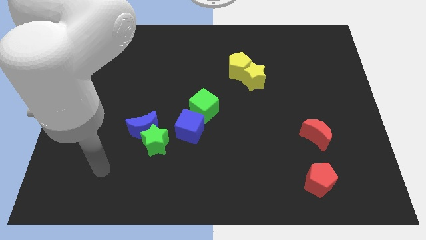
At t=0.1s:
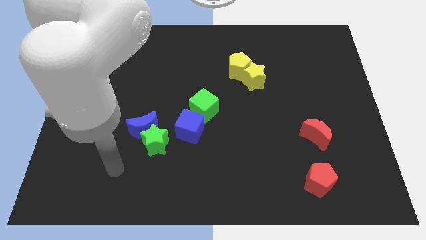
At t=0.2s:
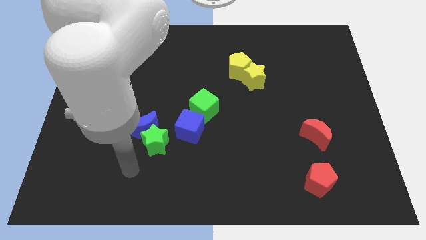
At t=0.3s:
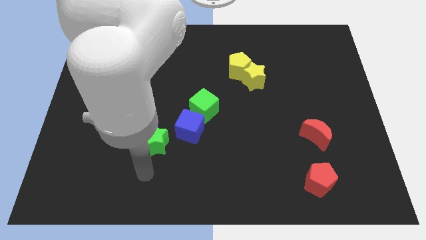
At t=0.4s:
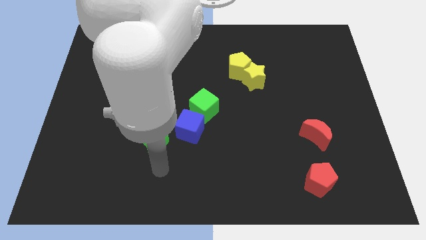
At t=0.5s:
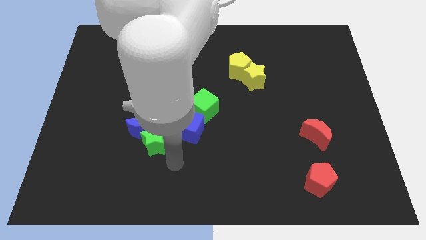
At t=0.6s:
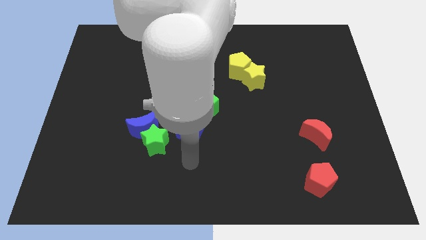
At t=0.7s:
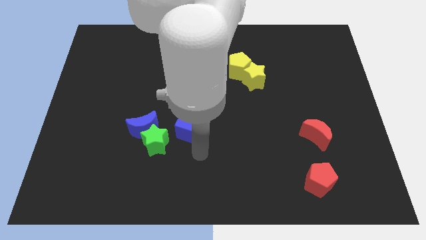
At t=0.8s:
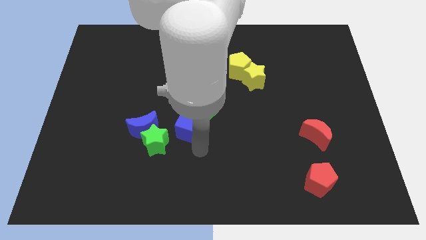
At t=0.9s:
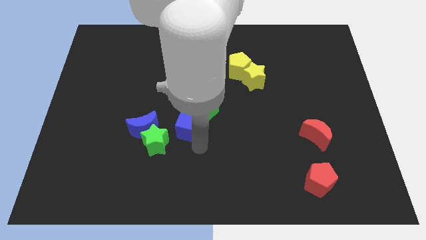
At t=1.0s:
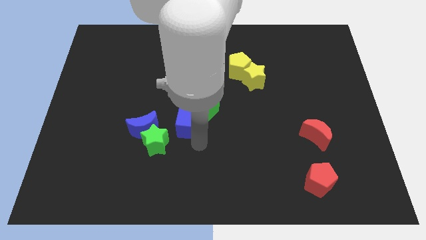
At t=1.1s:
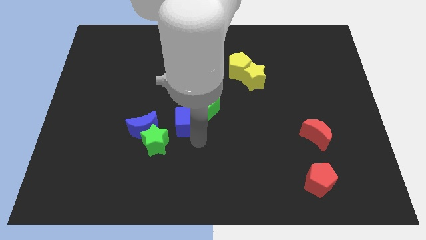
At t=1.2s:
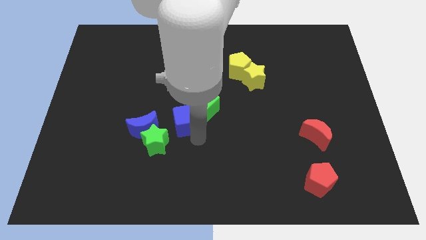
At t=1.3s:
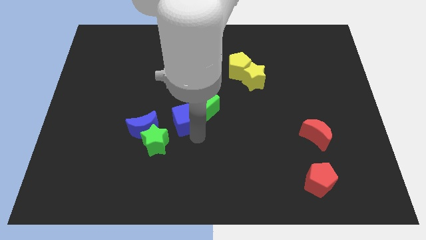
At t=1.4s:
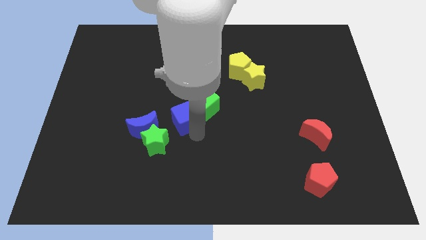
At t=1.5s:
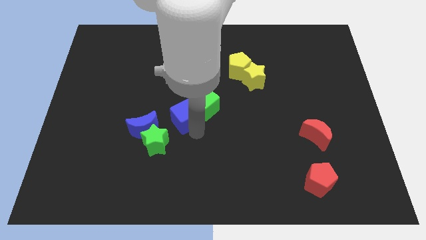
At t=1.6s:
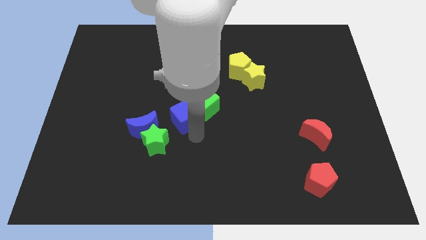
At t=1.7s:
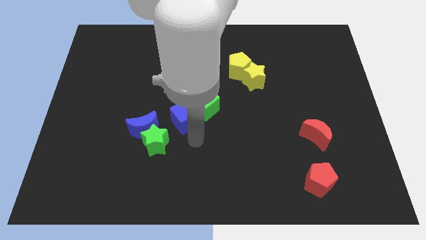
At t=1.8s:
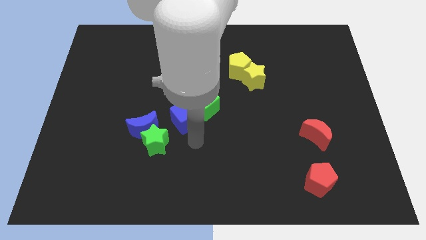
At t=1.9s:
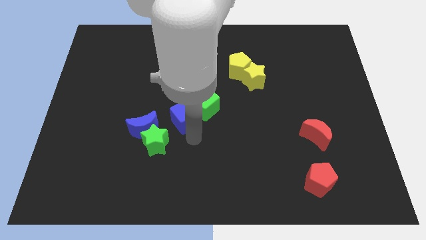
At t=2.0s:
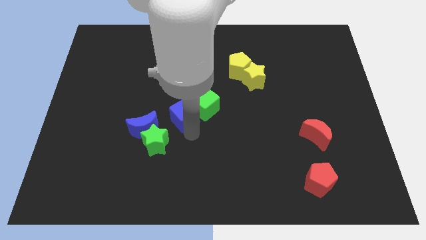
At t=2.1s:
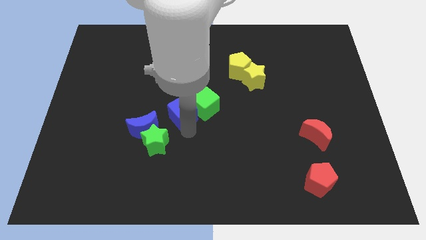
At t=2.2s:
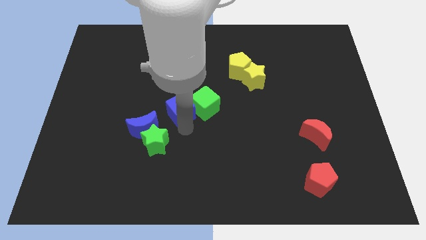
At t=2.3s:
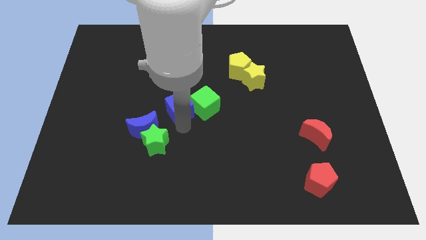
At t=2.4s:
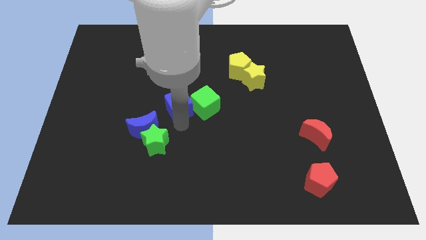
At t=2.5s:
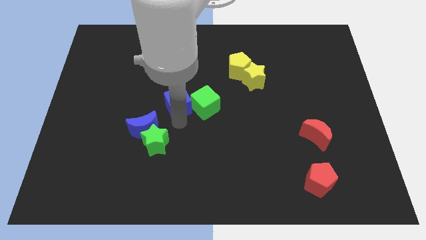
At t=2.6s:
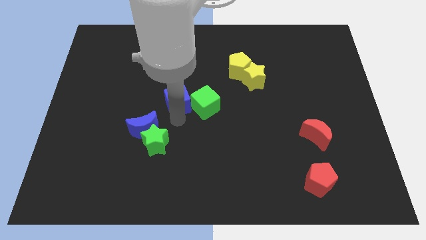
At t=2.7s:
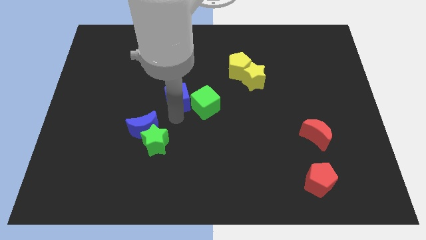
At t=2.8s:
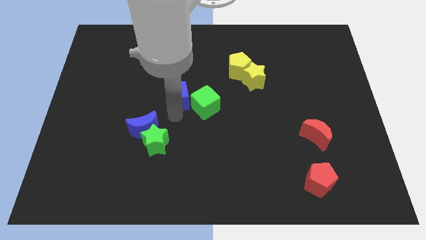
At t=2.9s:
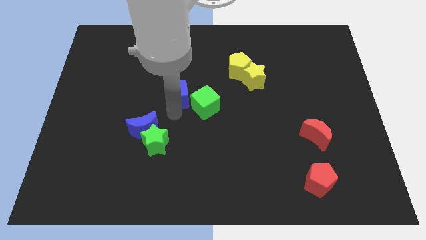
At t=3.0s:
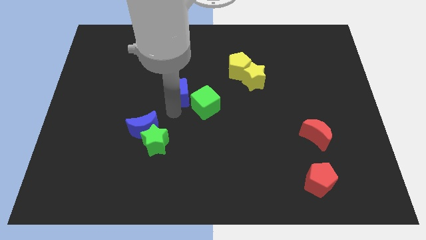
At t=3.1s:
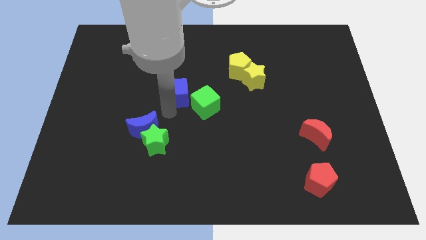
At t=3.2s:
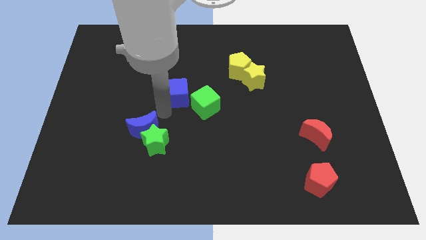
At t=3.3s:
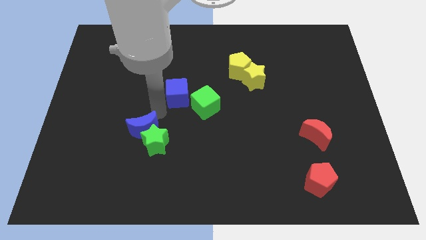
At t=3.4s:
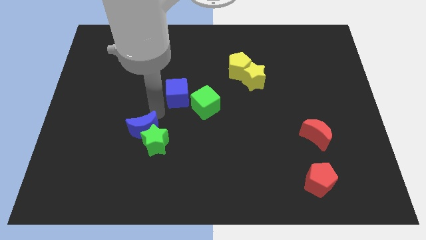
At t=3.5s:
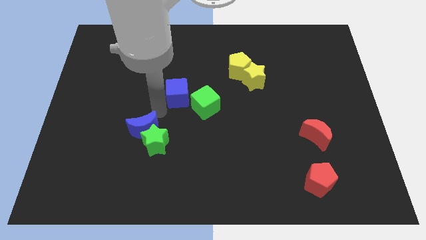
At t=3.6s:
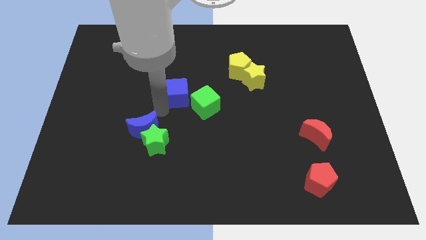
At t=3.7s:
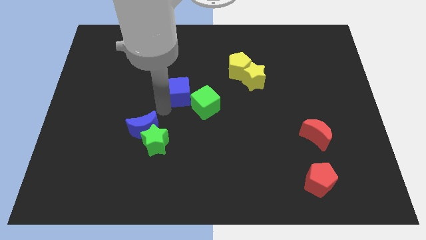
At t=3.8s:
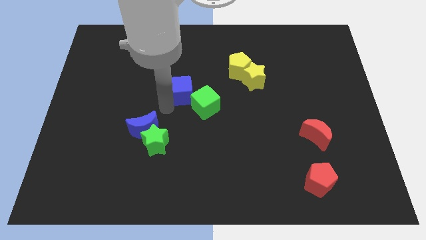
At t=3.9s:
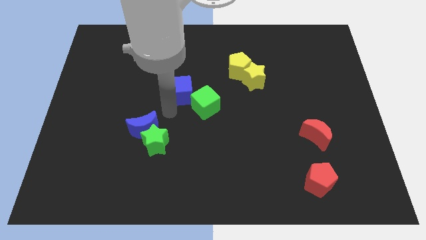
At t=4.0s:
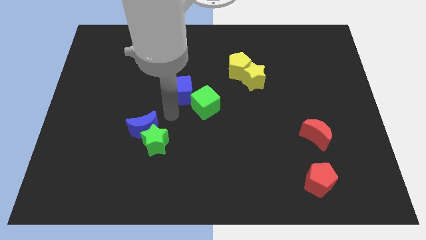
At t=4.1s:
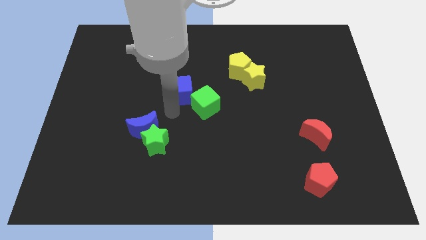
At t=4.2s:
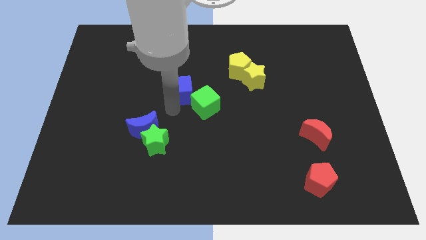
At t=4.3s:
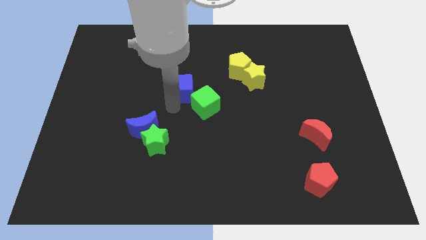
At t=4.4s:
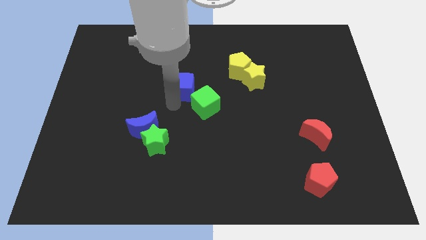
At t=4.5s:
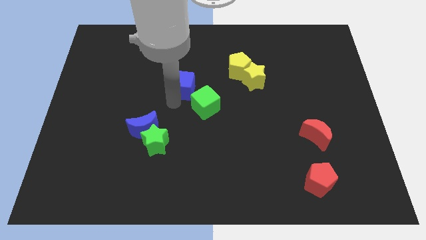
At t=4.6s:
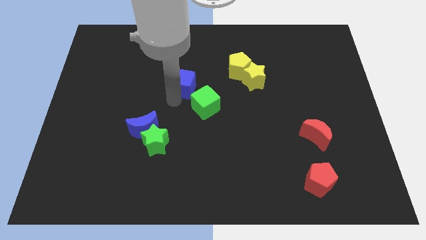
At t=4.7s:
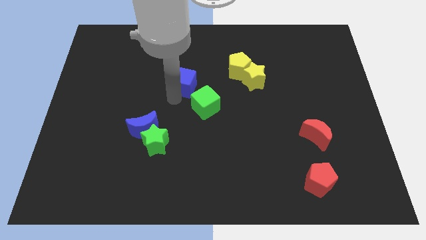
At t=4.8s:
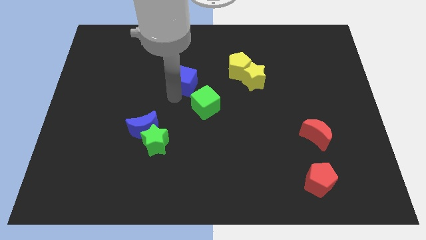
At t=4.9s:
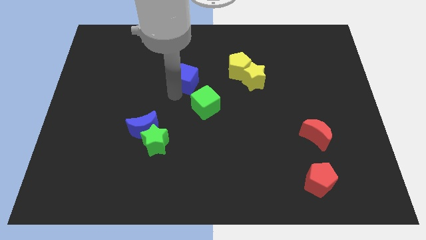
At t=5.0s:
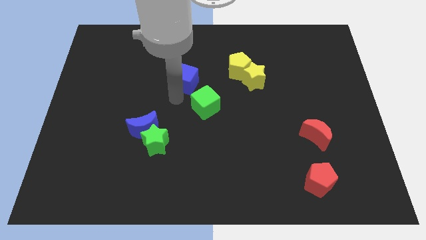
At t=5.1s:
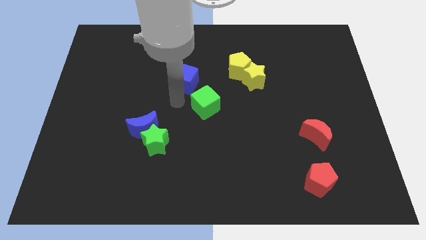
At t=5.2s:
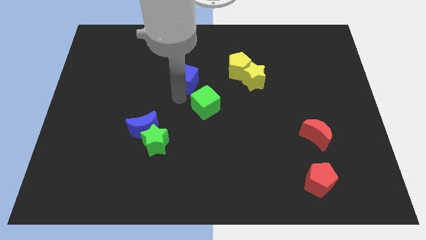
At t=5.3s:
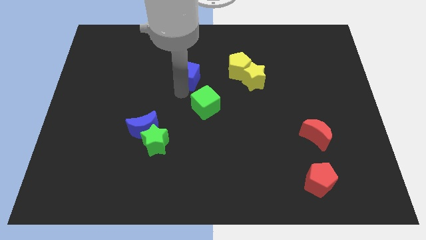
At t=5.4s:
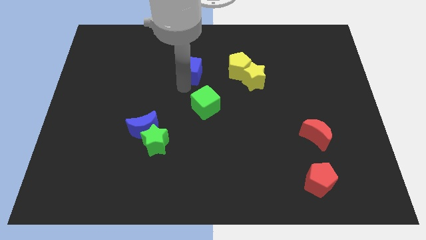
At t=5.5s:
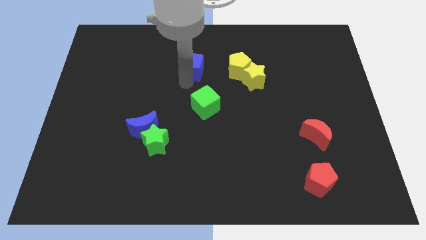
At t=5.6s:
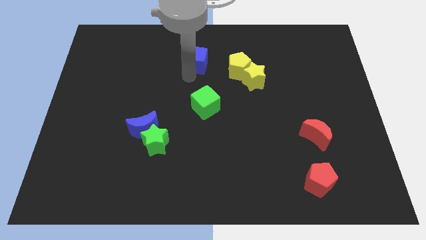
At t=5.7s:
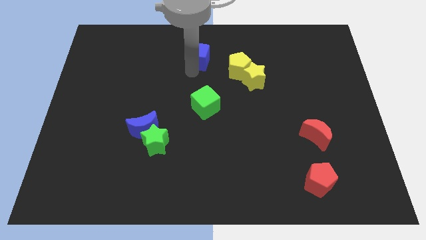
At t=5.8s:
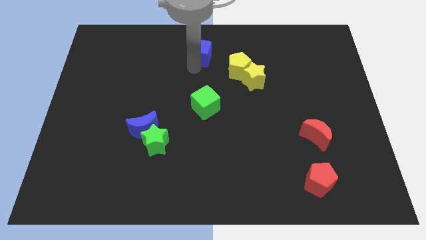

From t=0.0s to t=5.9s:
slide the blue cube to the top
